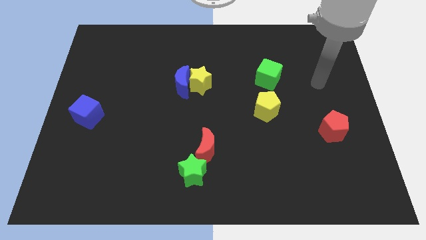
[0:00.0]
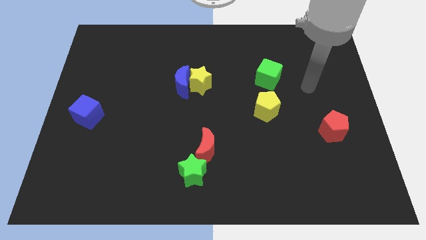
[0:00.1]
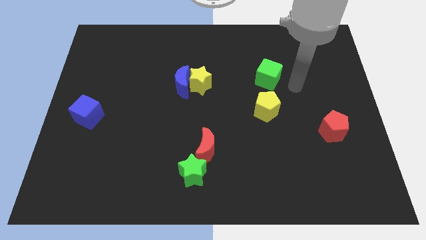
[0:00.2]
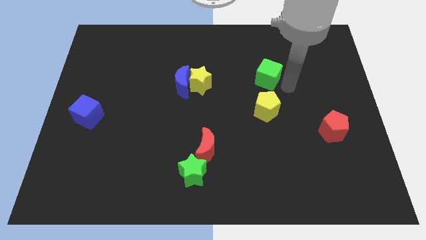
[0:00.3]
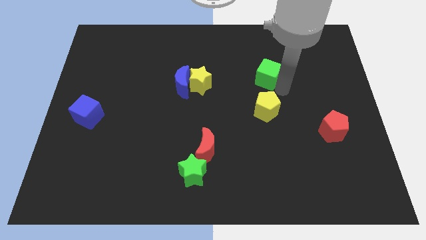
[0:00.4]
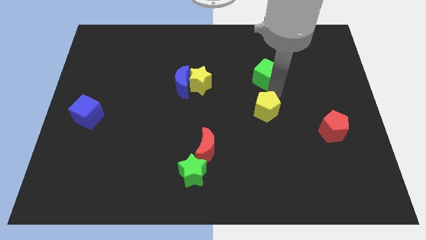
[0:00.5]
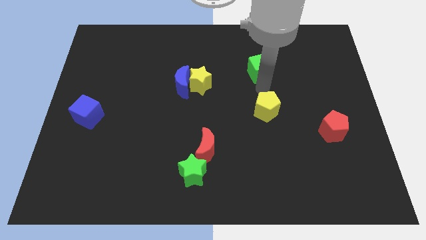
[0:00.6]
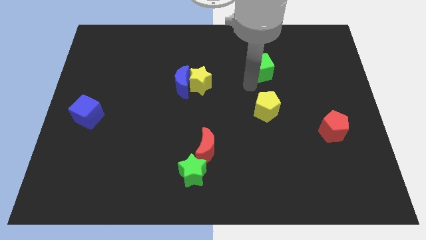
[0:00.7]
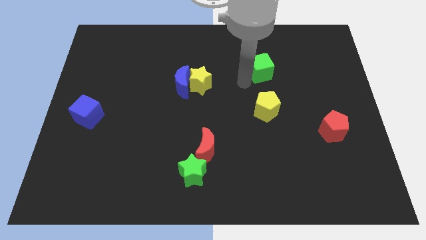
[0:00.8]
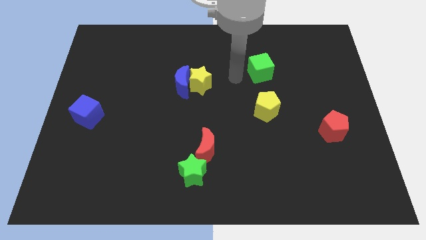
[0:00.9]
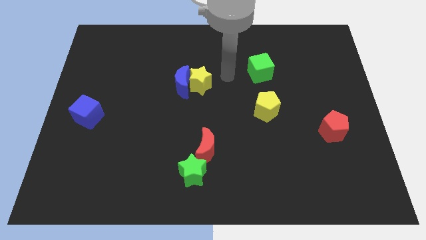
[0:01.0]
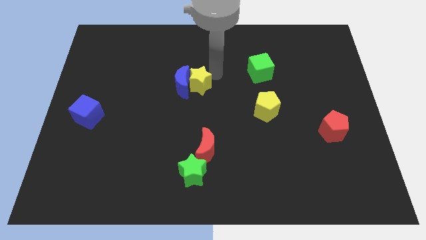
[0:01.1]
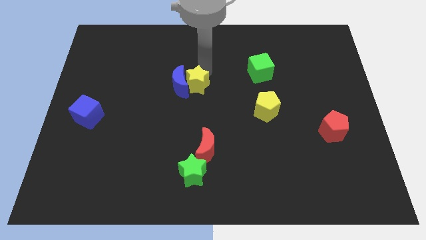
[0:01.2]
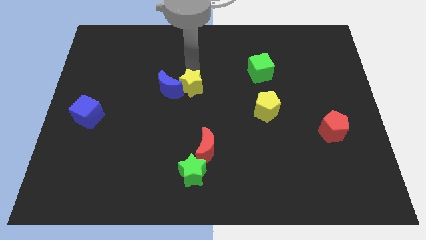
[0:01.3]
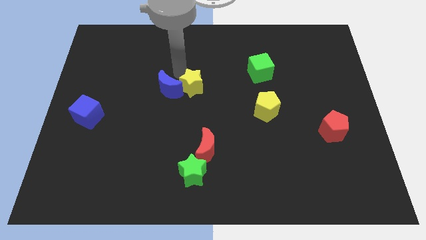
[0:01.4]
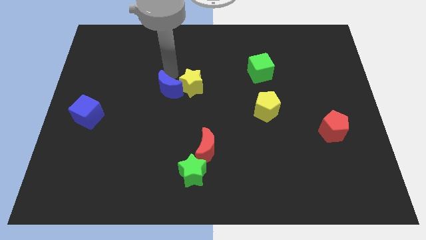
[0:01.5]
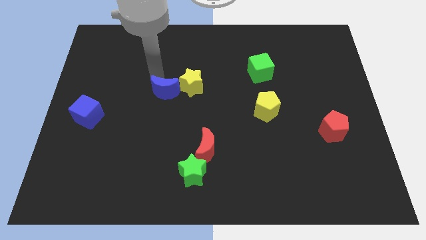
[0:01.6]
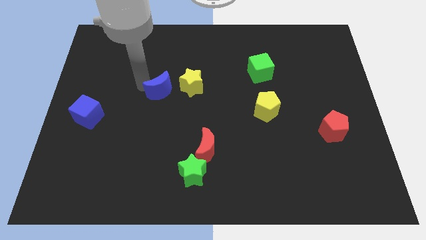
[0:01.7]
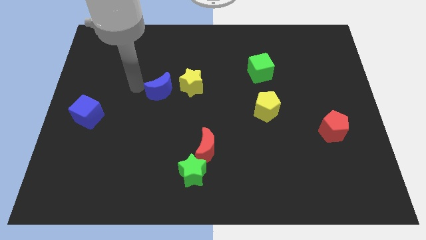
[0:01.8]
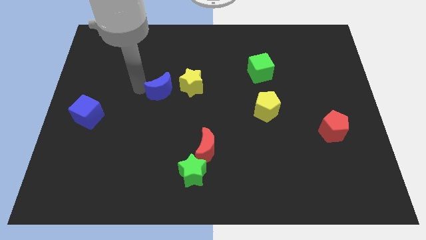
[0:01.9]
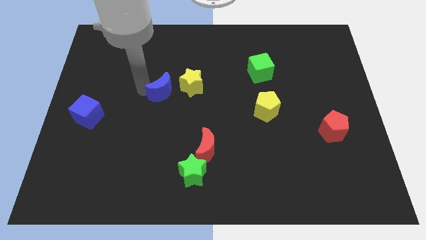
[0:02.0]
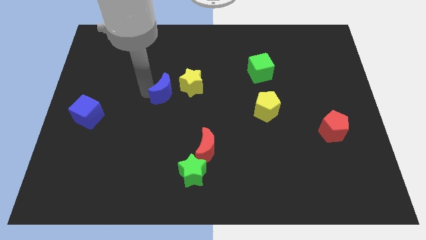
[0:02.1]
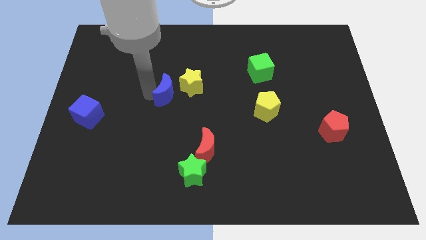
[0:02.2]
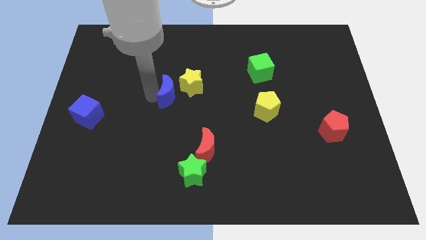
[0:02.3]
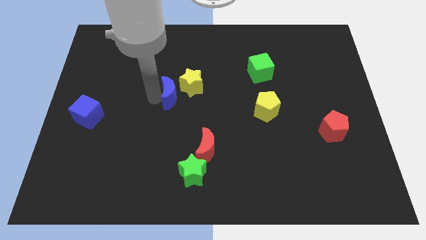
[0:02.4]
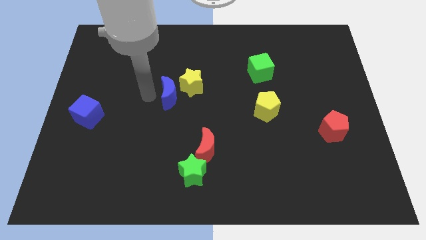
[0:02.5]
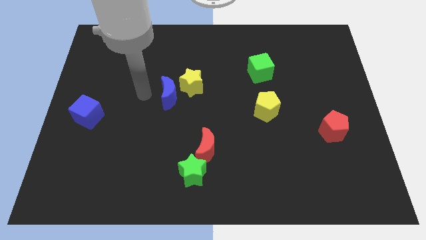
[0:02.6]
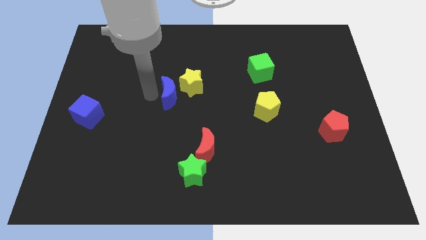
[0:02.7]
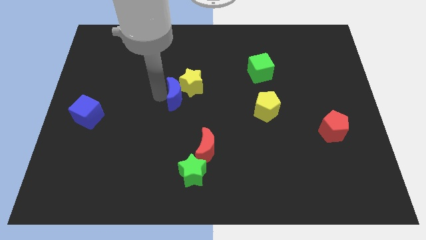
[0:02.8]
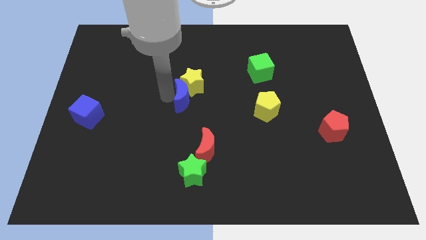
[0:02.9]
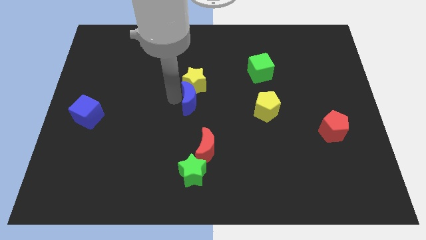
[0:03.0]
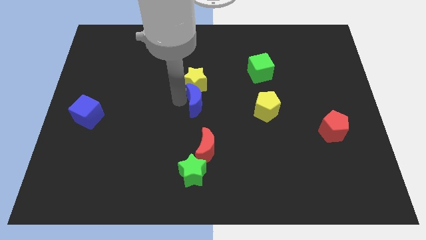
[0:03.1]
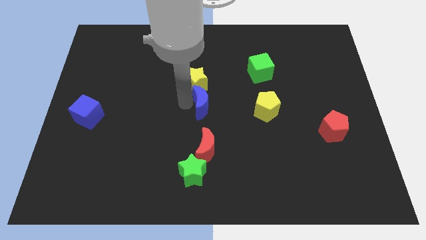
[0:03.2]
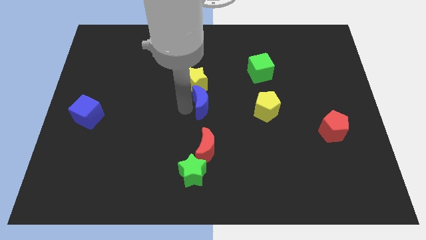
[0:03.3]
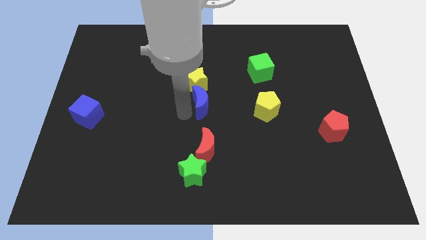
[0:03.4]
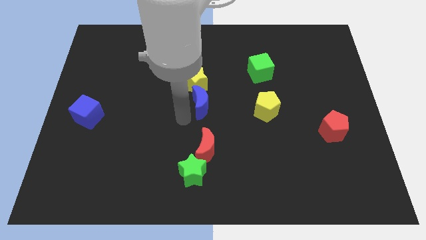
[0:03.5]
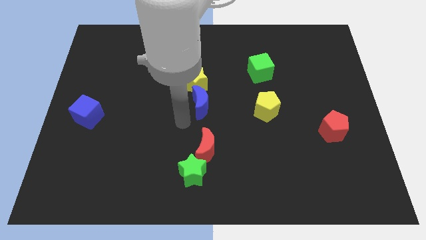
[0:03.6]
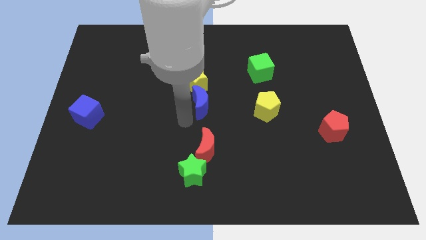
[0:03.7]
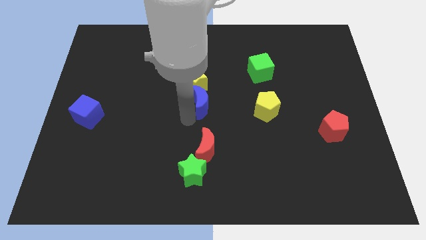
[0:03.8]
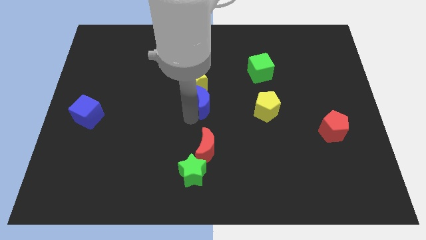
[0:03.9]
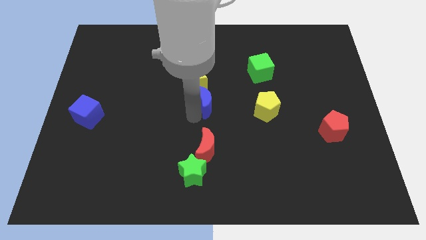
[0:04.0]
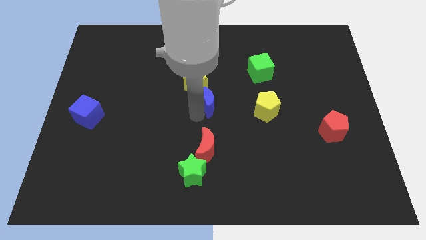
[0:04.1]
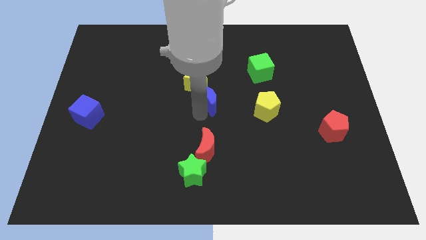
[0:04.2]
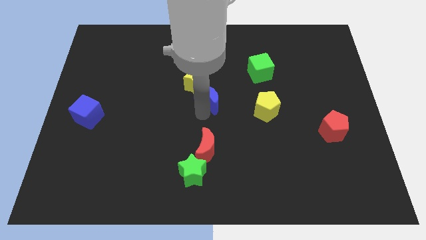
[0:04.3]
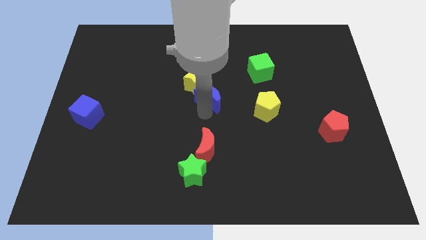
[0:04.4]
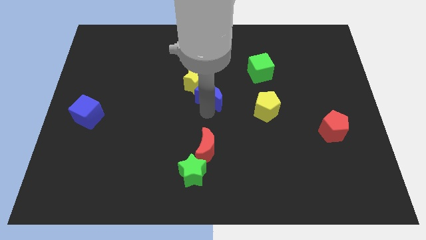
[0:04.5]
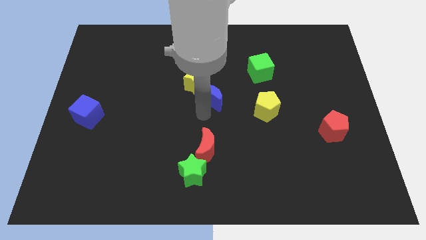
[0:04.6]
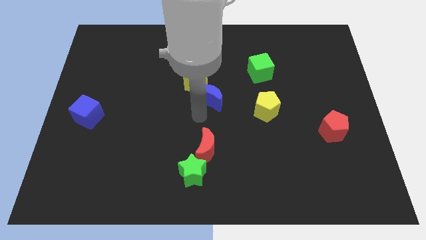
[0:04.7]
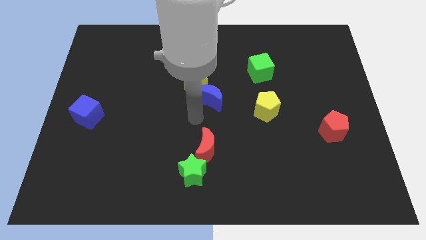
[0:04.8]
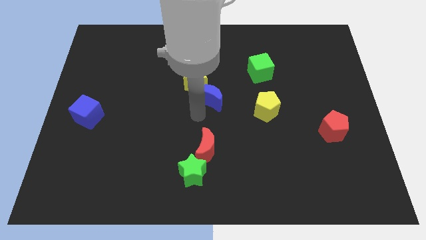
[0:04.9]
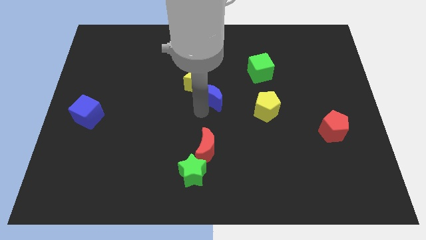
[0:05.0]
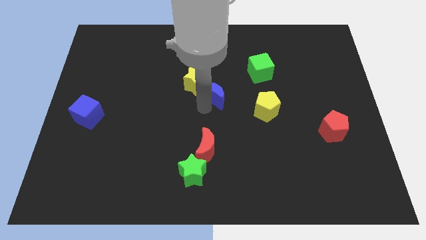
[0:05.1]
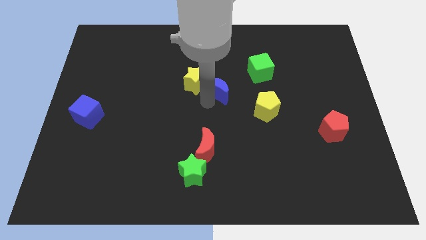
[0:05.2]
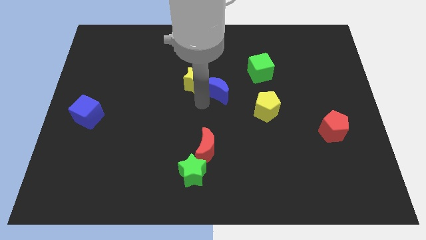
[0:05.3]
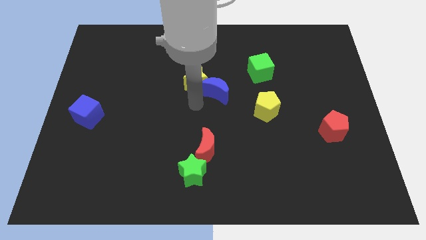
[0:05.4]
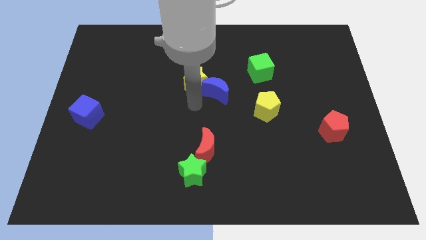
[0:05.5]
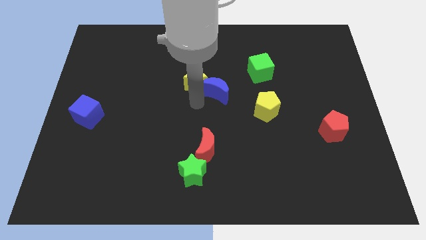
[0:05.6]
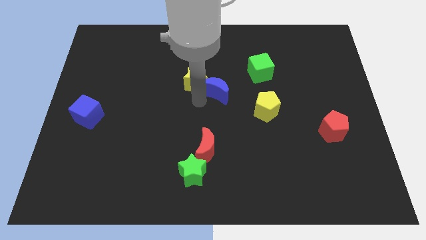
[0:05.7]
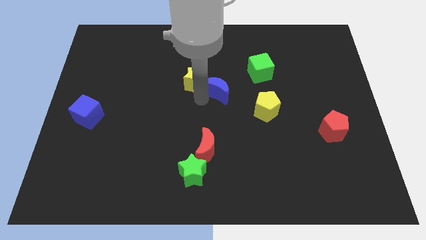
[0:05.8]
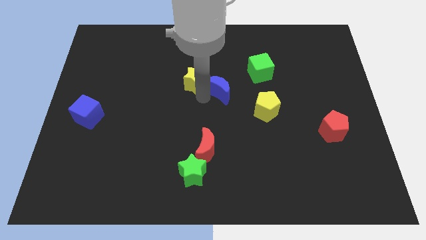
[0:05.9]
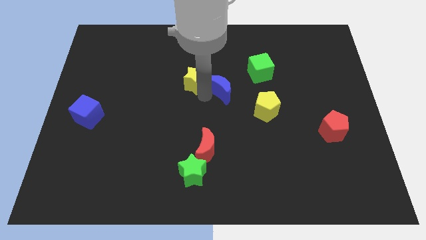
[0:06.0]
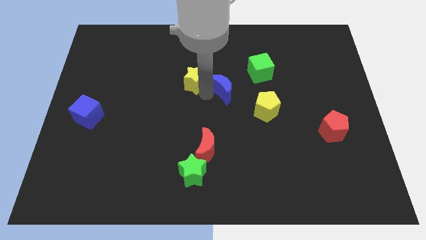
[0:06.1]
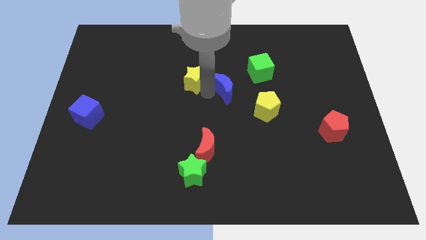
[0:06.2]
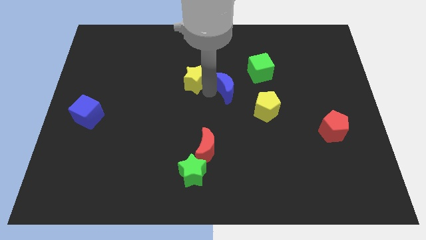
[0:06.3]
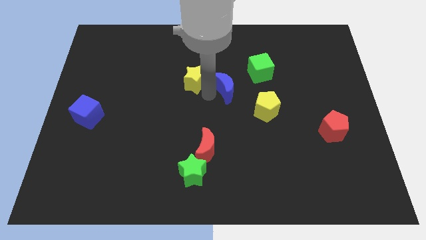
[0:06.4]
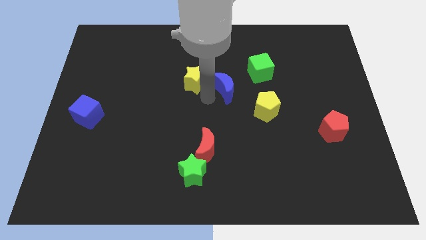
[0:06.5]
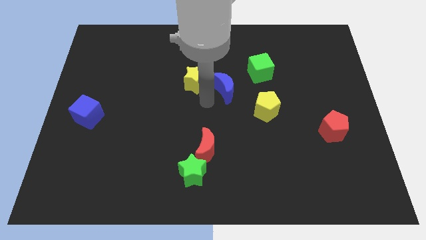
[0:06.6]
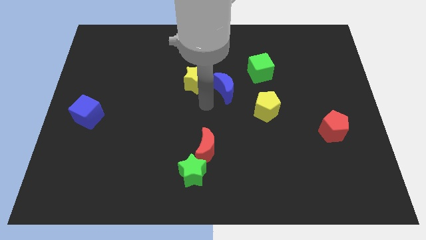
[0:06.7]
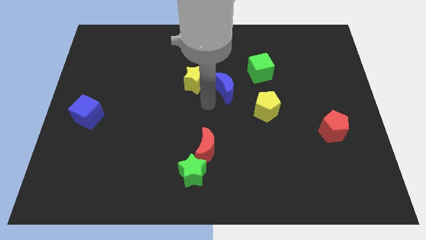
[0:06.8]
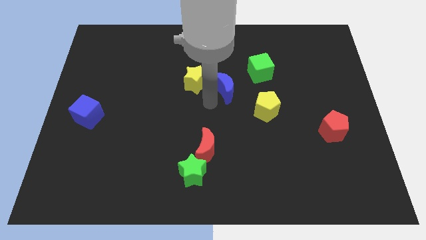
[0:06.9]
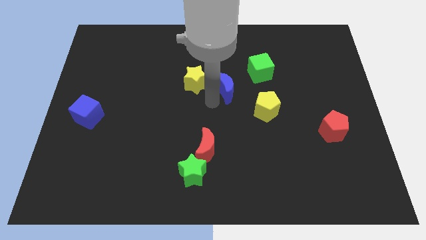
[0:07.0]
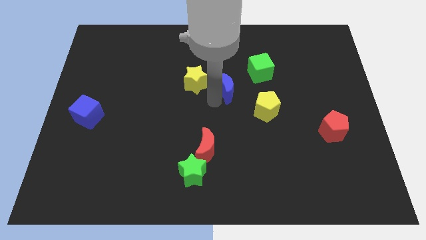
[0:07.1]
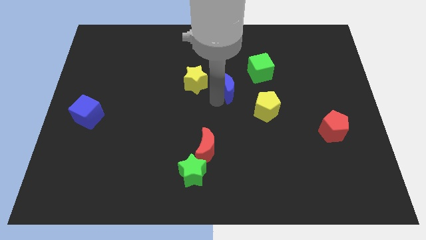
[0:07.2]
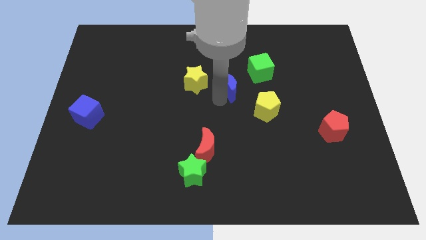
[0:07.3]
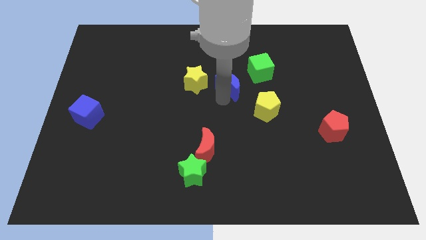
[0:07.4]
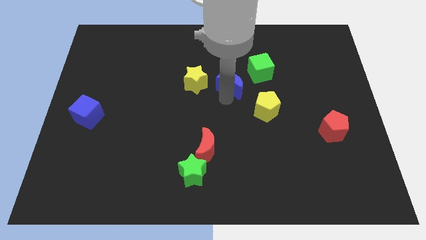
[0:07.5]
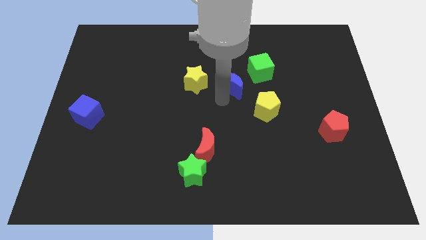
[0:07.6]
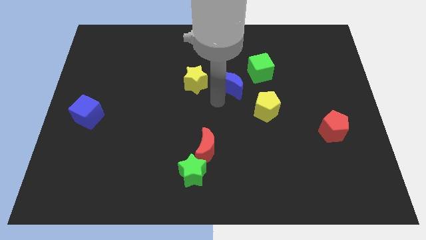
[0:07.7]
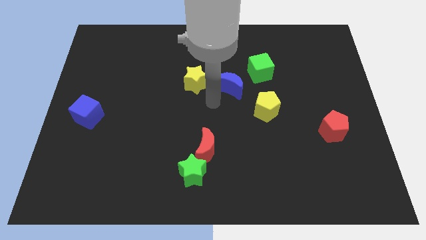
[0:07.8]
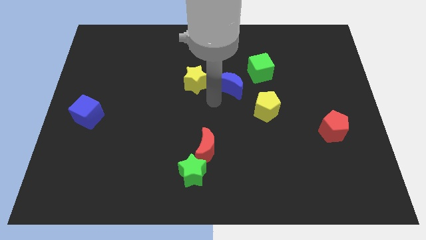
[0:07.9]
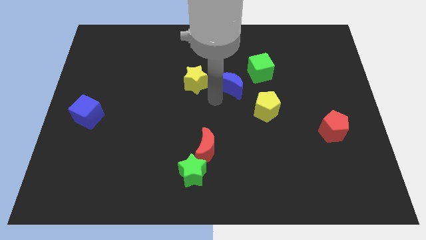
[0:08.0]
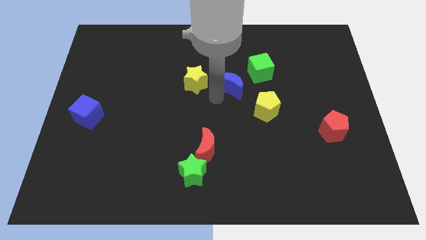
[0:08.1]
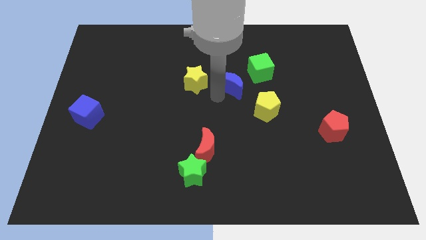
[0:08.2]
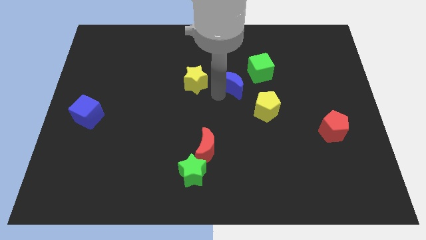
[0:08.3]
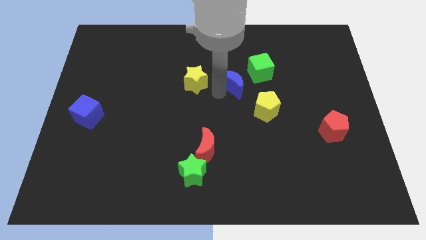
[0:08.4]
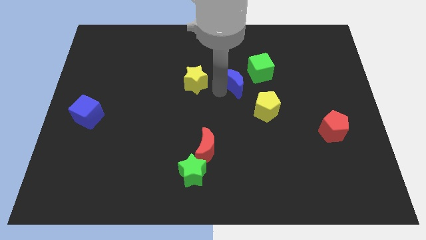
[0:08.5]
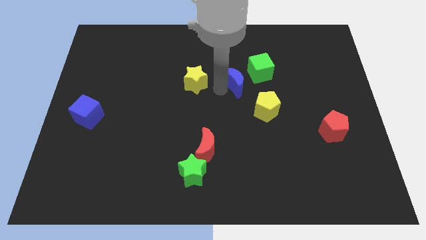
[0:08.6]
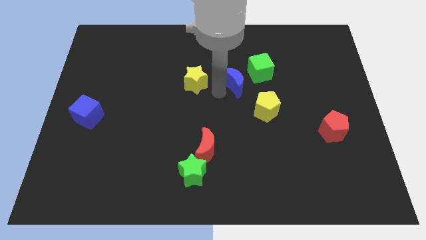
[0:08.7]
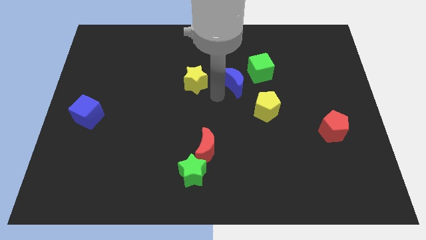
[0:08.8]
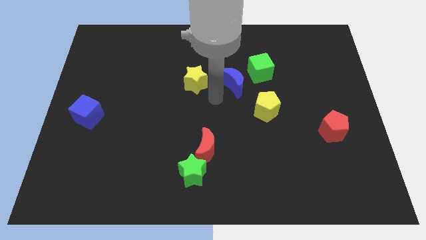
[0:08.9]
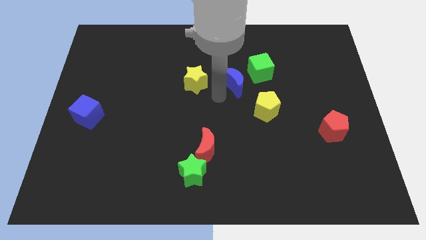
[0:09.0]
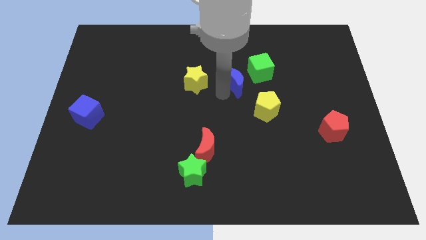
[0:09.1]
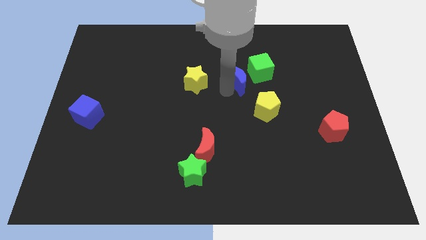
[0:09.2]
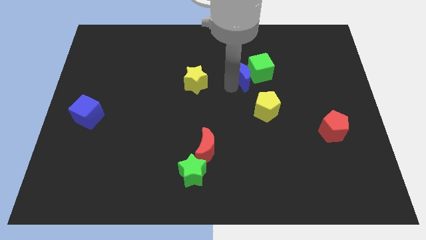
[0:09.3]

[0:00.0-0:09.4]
push the blue moon towards the green cube
